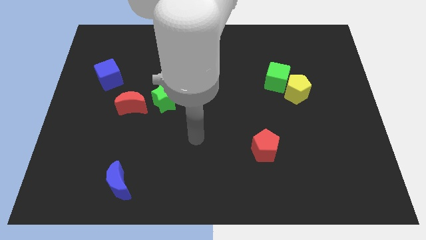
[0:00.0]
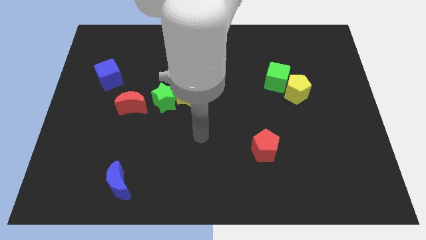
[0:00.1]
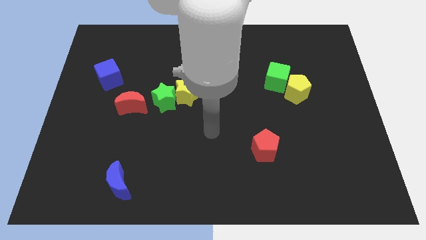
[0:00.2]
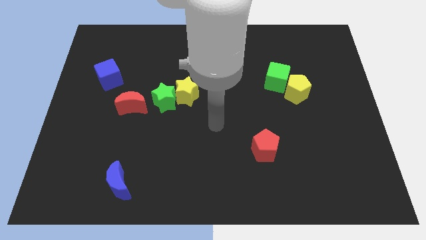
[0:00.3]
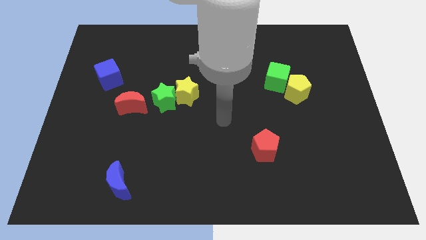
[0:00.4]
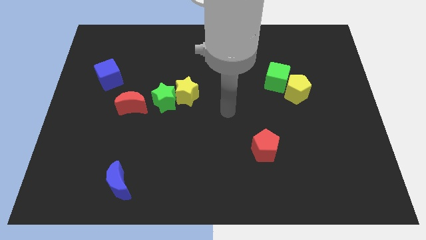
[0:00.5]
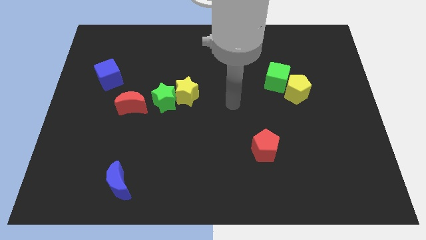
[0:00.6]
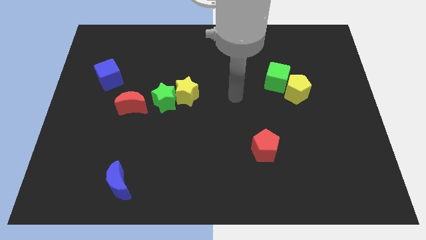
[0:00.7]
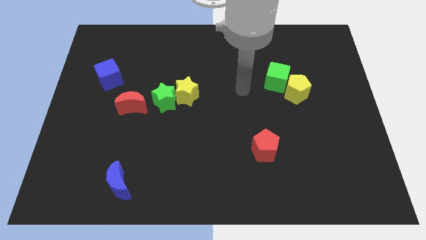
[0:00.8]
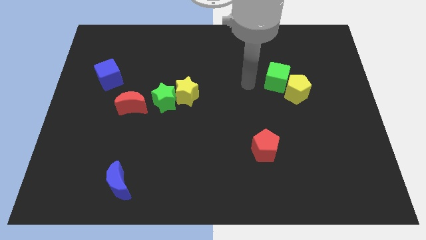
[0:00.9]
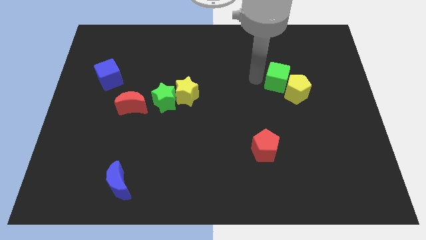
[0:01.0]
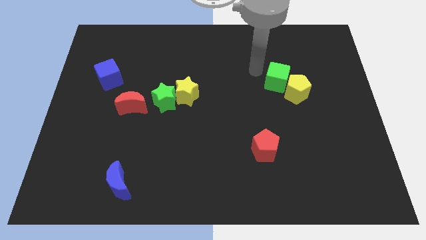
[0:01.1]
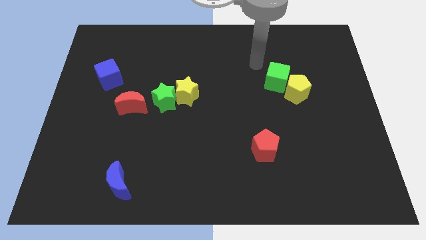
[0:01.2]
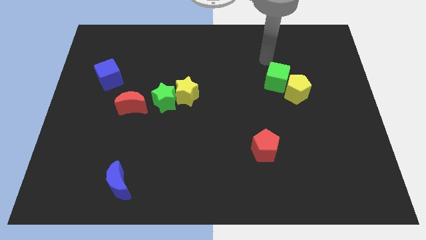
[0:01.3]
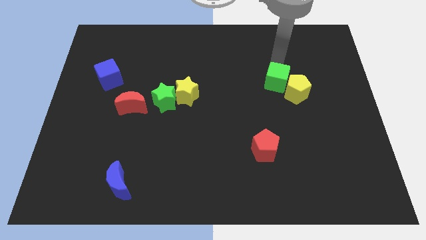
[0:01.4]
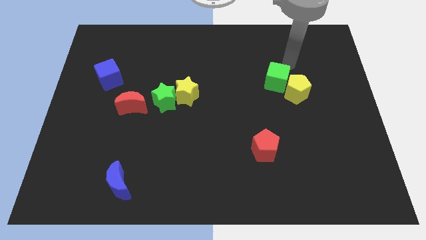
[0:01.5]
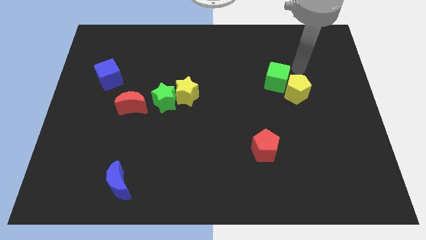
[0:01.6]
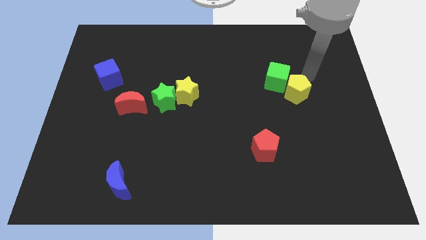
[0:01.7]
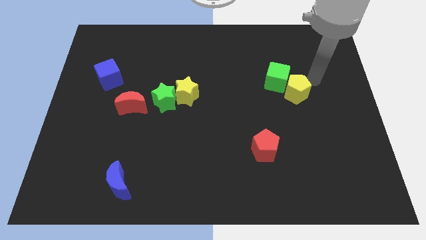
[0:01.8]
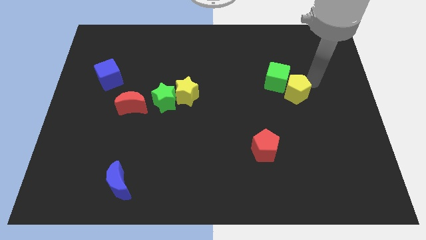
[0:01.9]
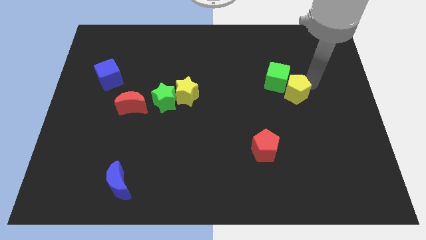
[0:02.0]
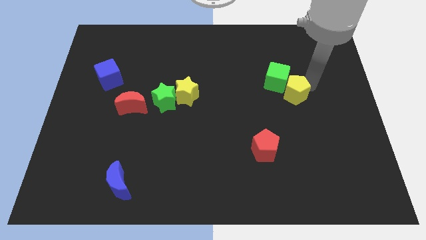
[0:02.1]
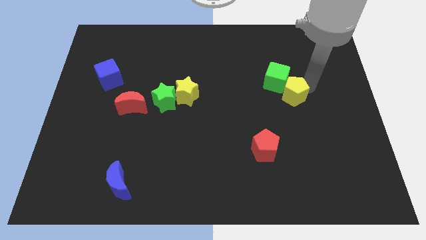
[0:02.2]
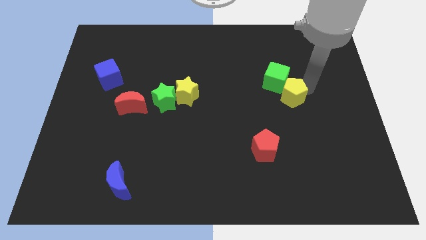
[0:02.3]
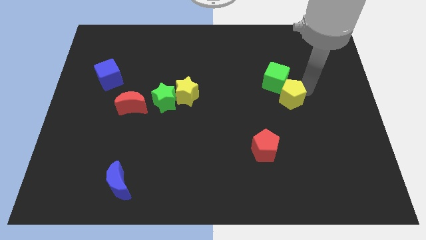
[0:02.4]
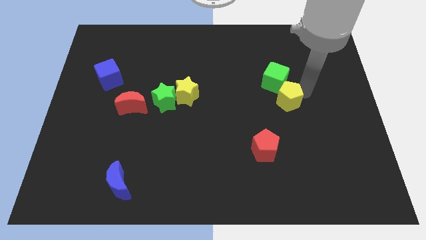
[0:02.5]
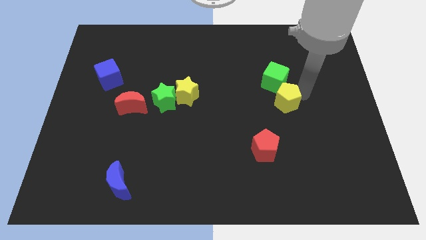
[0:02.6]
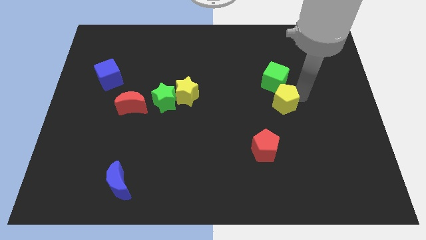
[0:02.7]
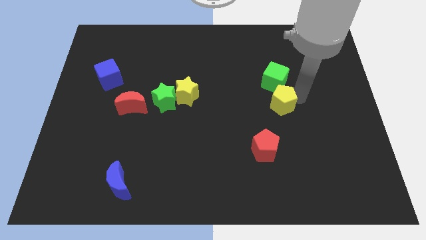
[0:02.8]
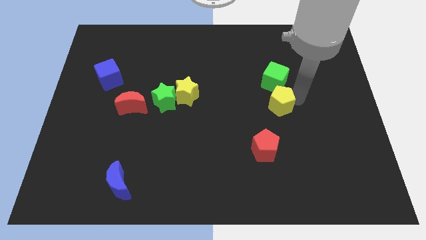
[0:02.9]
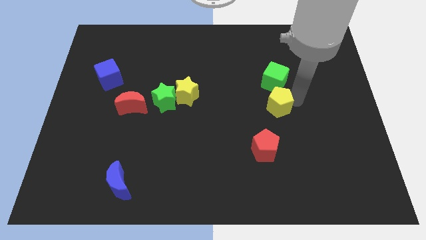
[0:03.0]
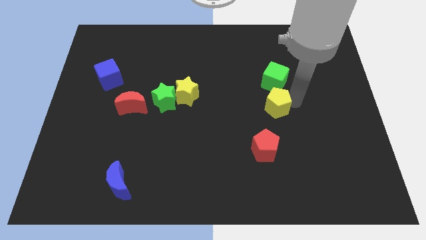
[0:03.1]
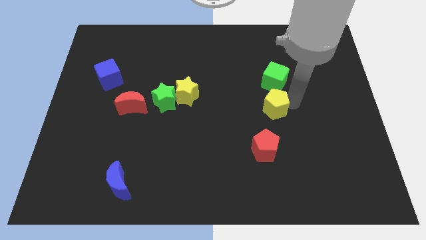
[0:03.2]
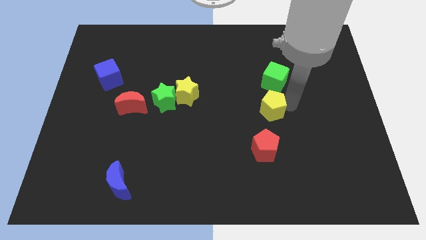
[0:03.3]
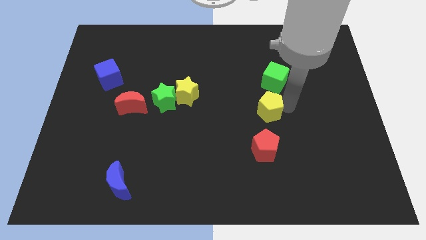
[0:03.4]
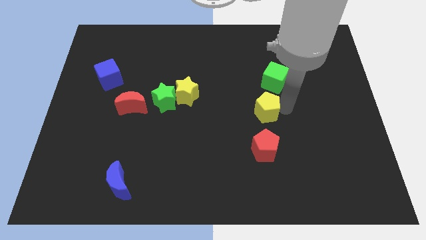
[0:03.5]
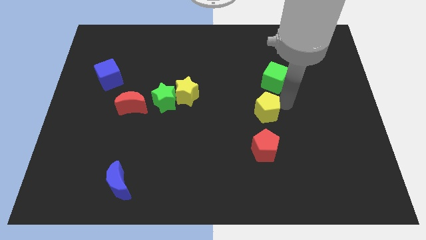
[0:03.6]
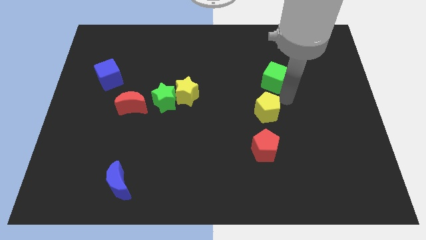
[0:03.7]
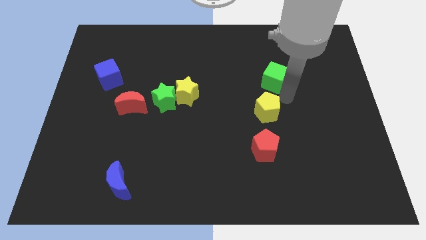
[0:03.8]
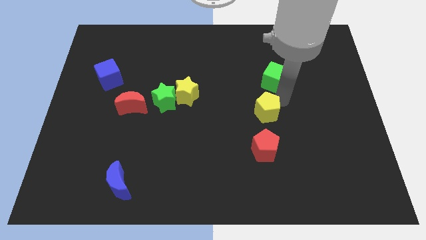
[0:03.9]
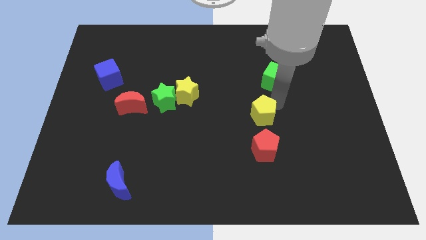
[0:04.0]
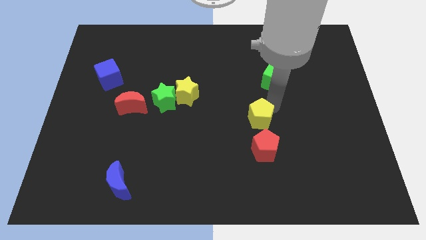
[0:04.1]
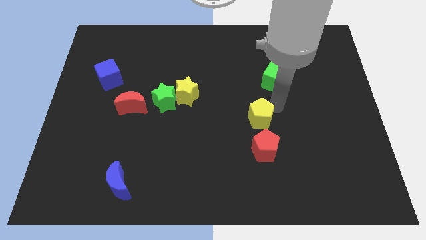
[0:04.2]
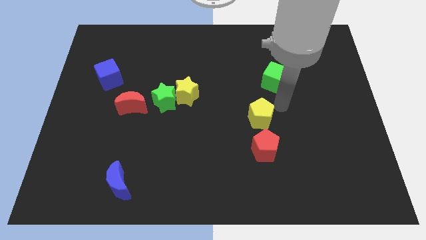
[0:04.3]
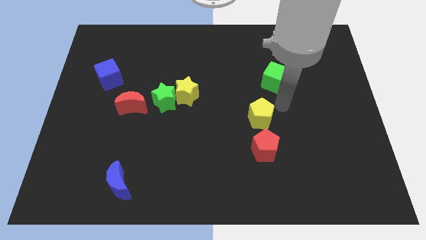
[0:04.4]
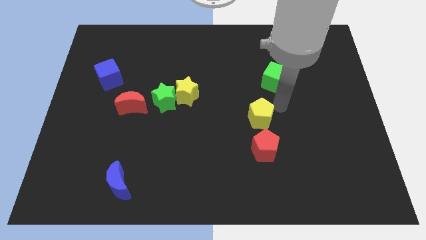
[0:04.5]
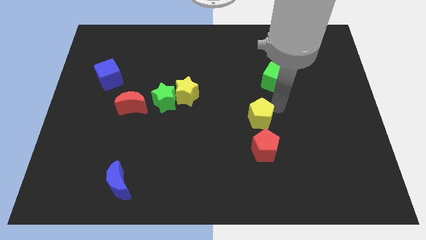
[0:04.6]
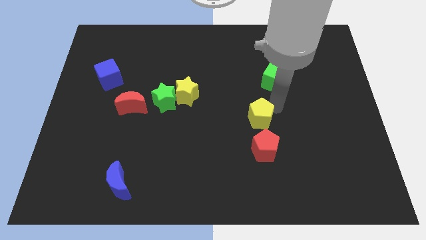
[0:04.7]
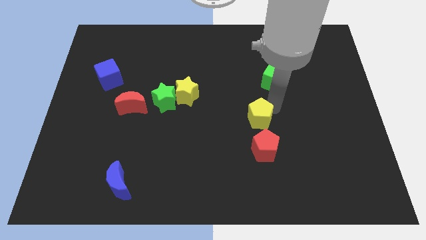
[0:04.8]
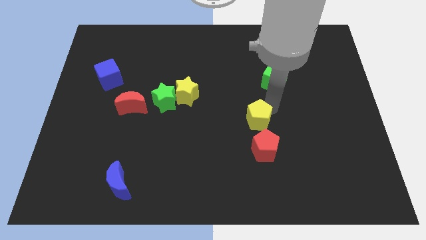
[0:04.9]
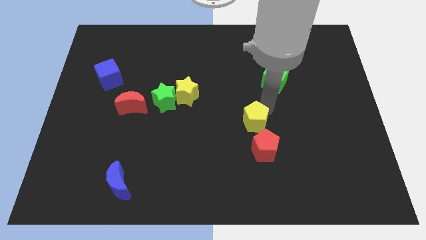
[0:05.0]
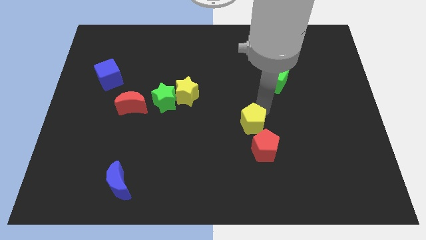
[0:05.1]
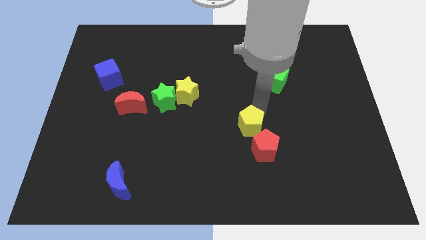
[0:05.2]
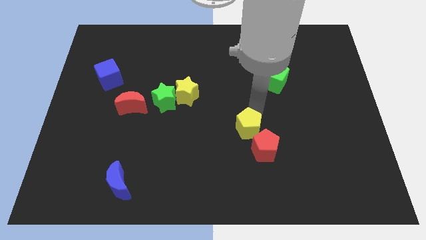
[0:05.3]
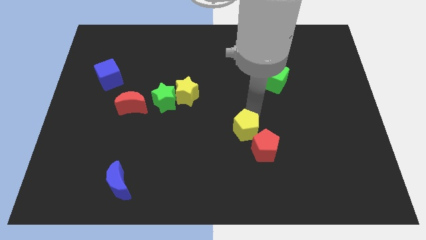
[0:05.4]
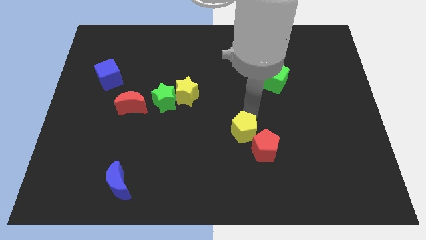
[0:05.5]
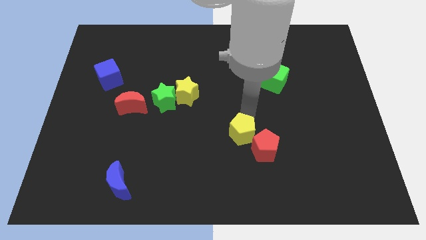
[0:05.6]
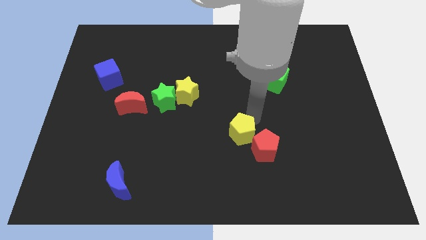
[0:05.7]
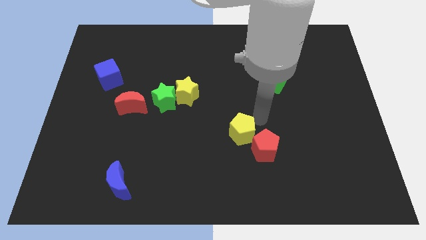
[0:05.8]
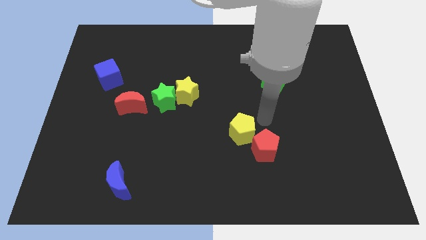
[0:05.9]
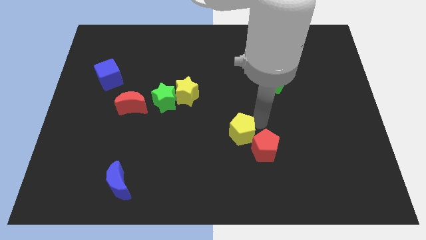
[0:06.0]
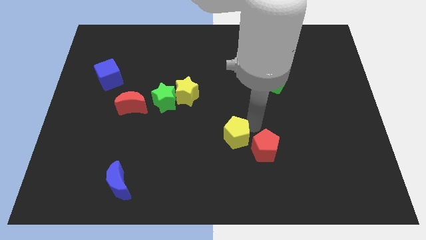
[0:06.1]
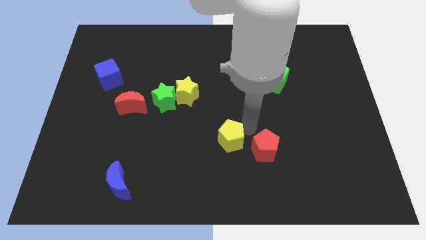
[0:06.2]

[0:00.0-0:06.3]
push the yellow pentagon down and to the left

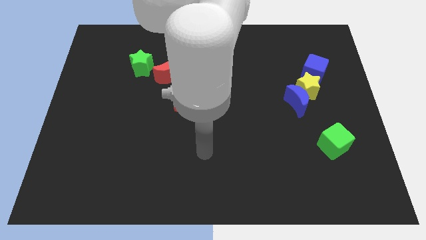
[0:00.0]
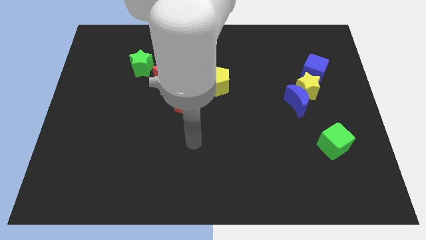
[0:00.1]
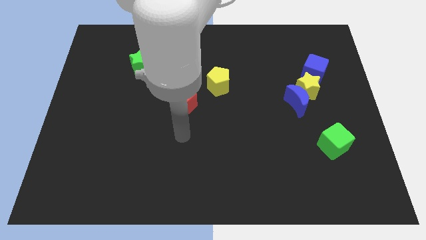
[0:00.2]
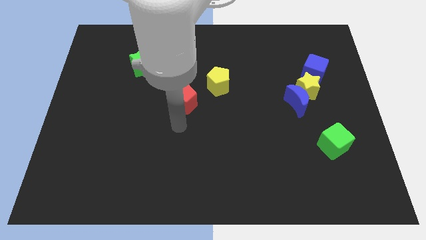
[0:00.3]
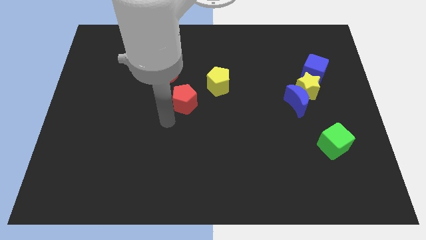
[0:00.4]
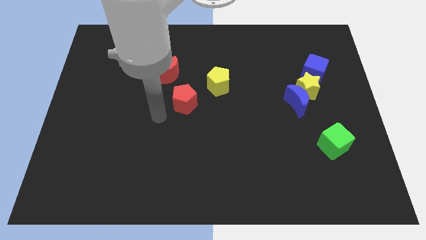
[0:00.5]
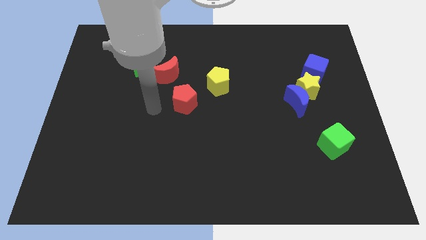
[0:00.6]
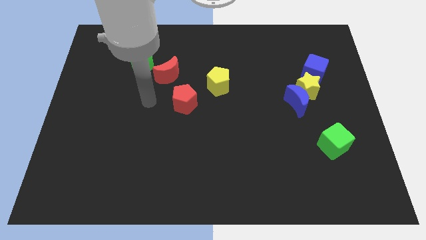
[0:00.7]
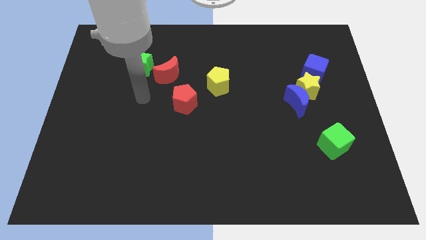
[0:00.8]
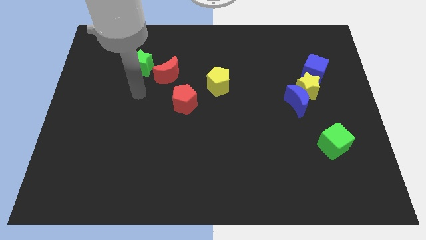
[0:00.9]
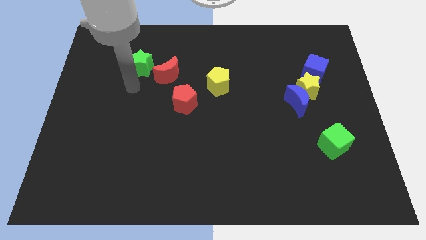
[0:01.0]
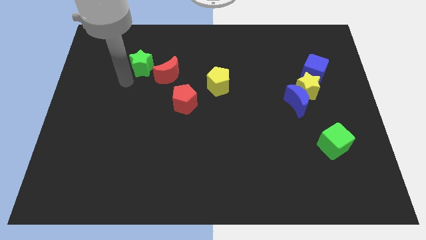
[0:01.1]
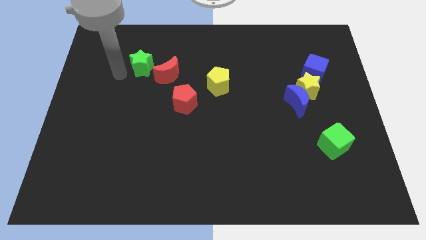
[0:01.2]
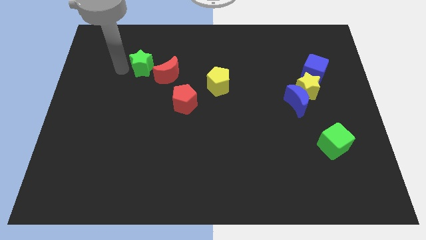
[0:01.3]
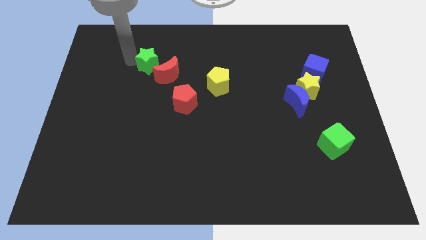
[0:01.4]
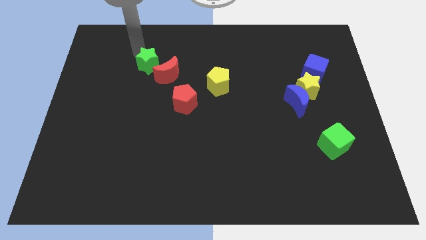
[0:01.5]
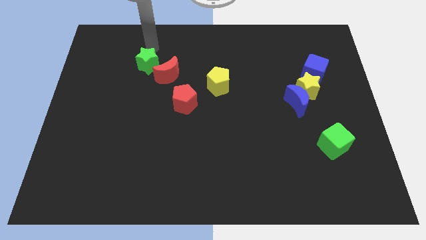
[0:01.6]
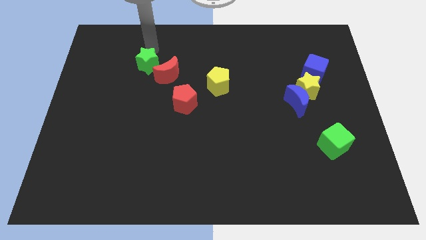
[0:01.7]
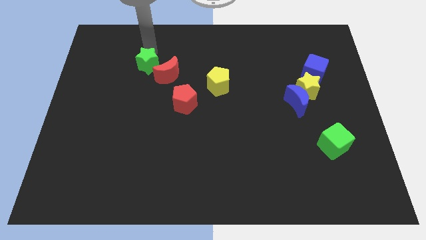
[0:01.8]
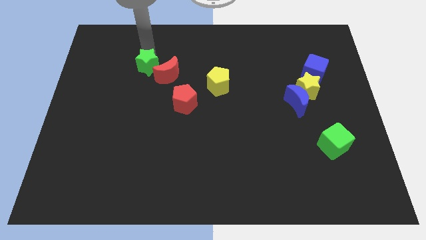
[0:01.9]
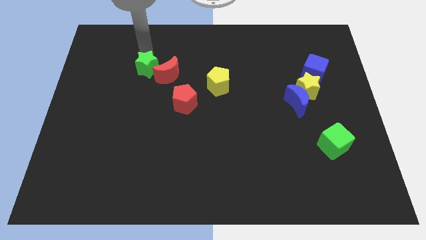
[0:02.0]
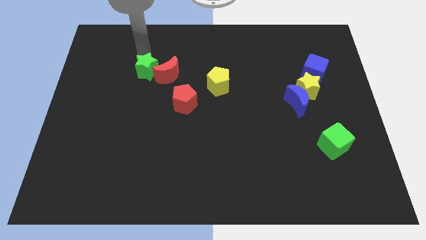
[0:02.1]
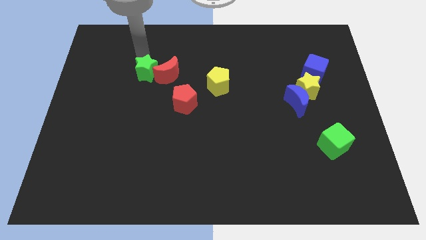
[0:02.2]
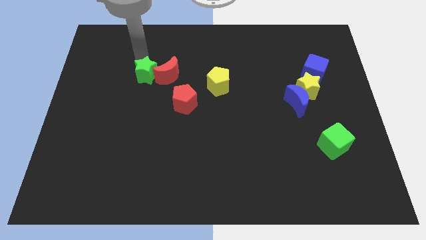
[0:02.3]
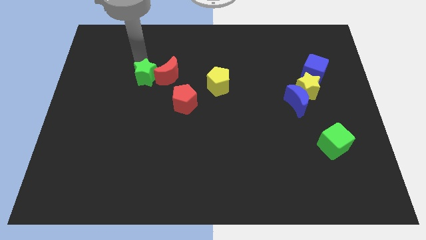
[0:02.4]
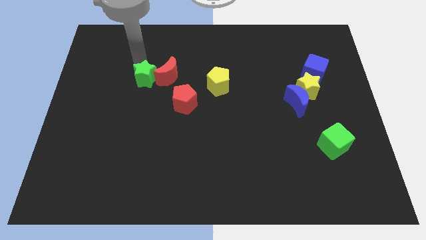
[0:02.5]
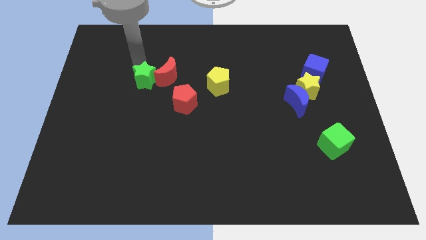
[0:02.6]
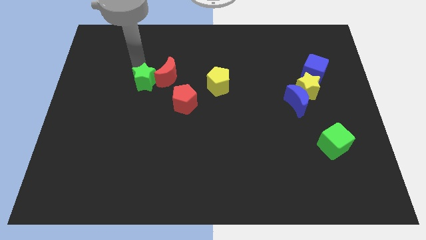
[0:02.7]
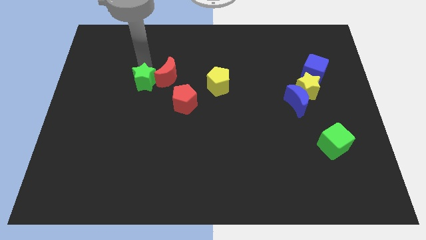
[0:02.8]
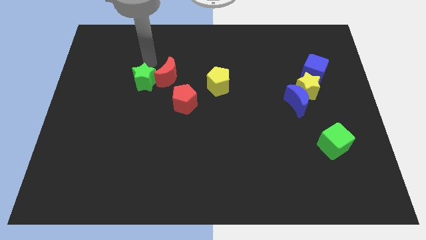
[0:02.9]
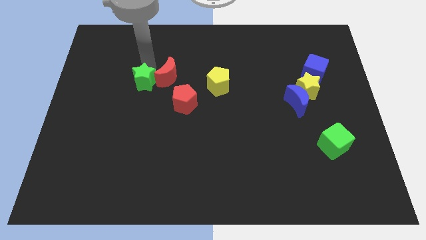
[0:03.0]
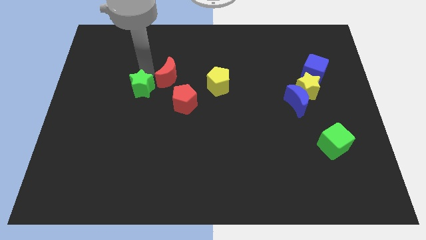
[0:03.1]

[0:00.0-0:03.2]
move the green star a bit down
